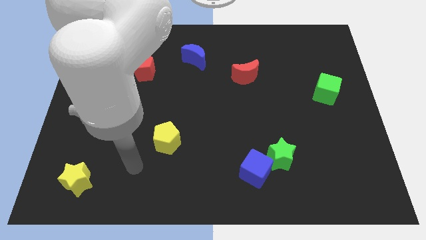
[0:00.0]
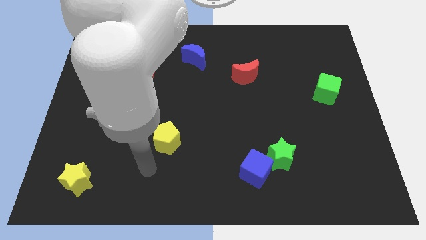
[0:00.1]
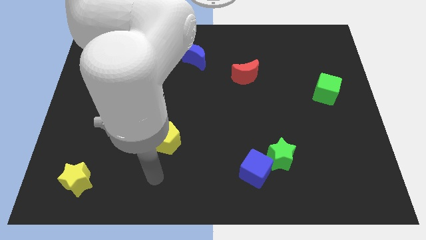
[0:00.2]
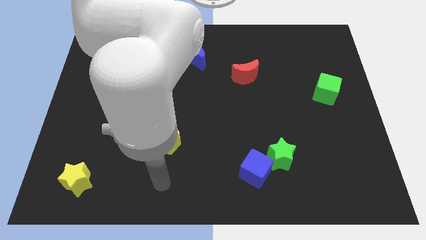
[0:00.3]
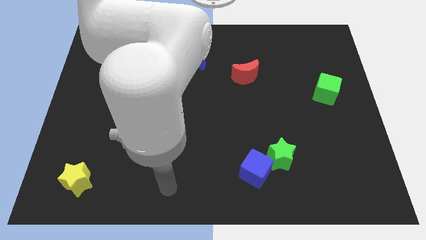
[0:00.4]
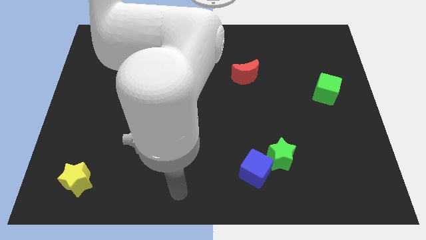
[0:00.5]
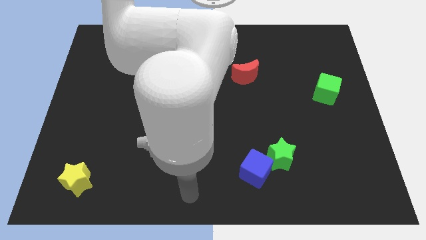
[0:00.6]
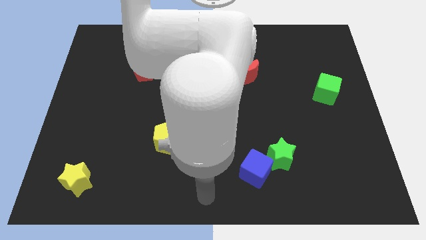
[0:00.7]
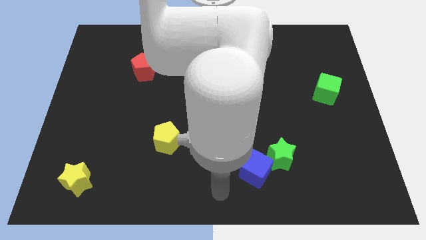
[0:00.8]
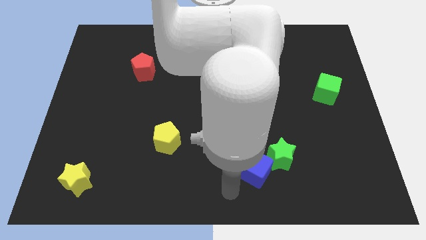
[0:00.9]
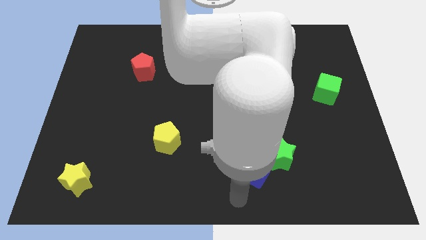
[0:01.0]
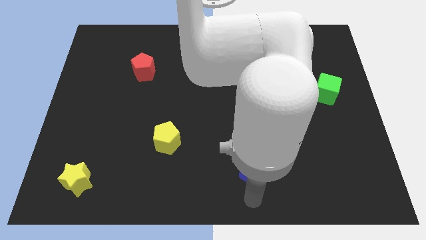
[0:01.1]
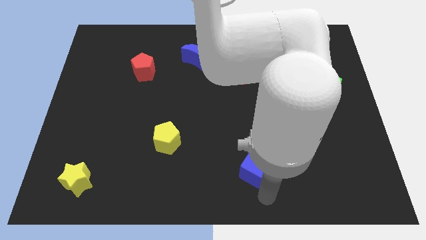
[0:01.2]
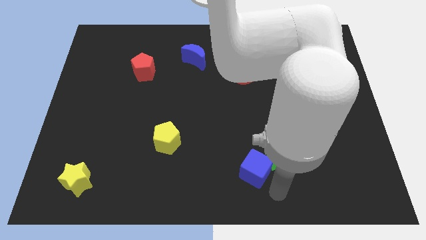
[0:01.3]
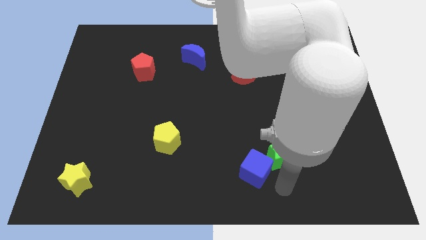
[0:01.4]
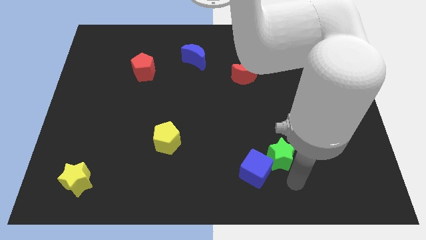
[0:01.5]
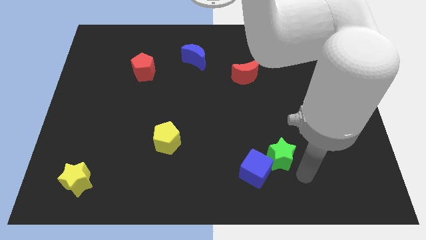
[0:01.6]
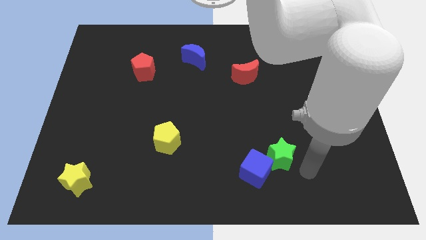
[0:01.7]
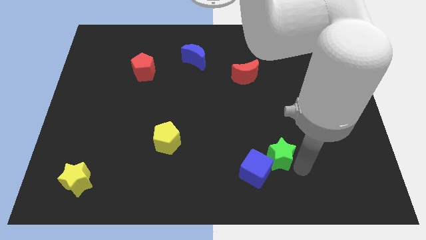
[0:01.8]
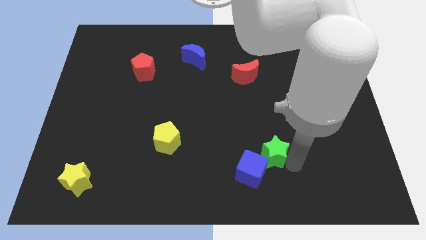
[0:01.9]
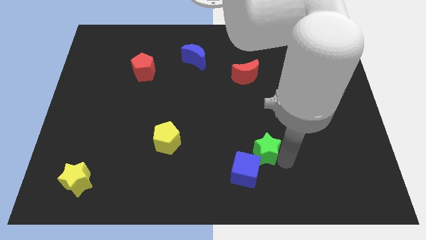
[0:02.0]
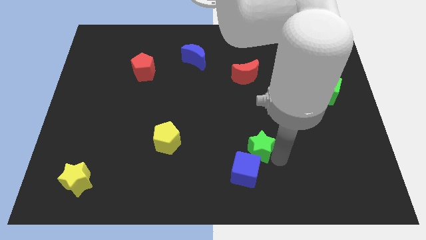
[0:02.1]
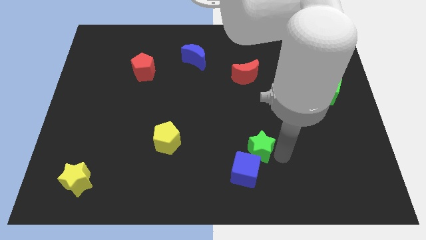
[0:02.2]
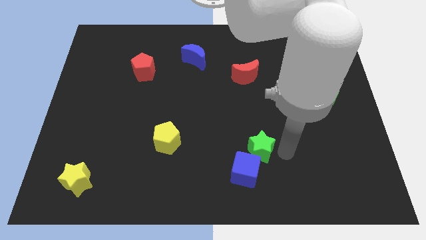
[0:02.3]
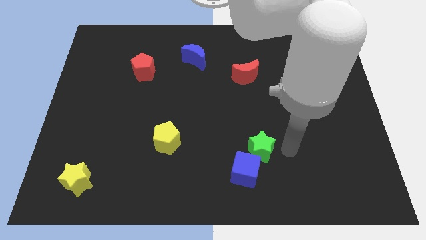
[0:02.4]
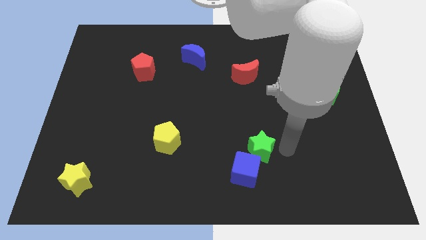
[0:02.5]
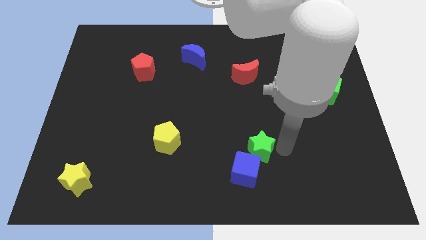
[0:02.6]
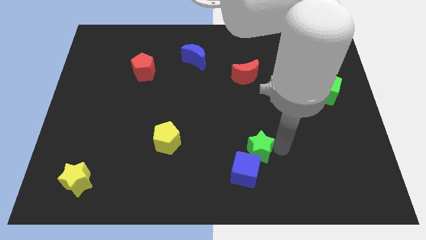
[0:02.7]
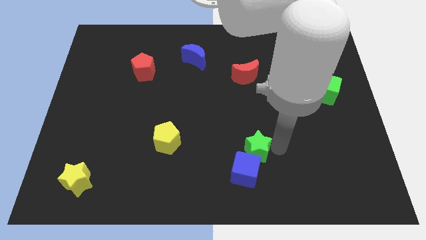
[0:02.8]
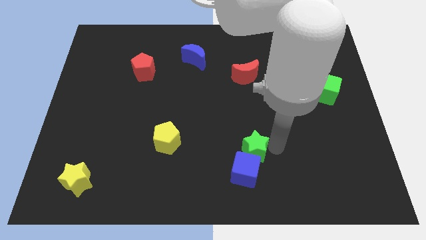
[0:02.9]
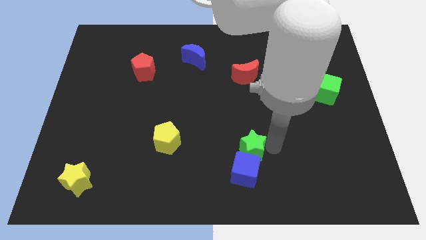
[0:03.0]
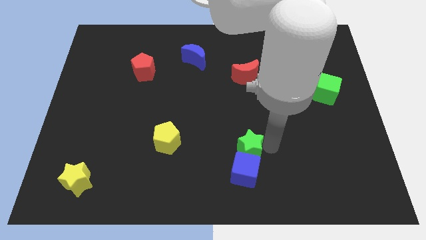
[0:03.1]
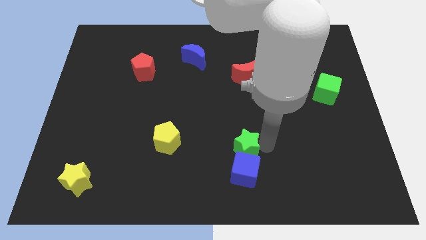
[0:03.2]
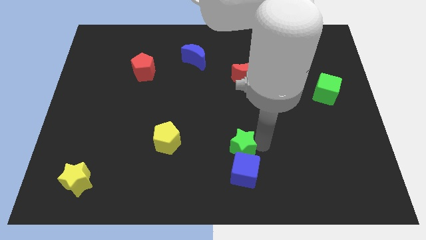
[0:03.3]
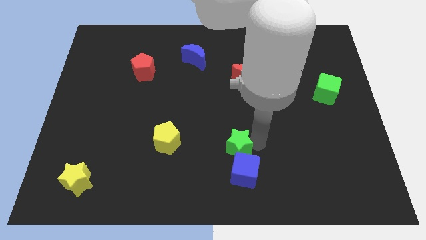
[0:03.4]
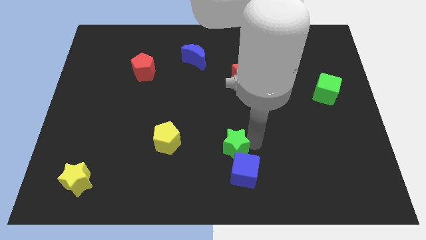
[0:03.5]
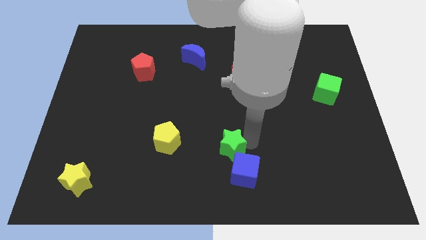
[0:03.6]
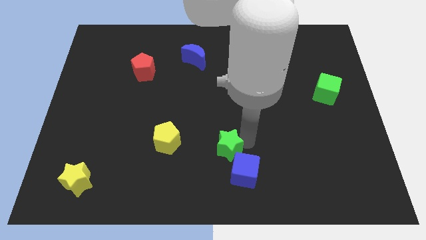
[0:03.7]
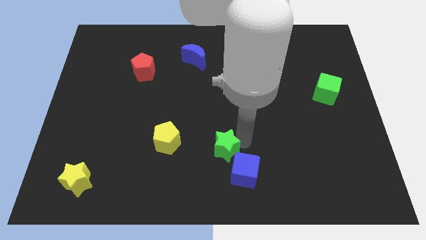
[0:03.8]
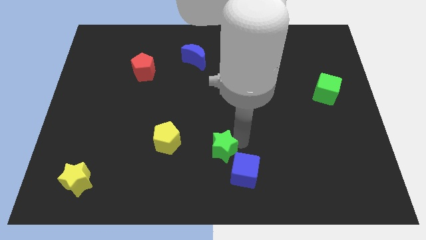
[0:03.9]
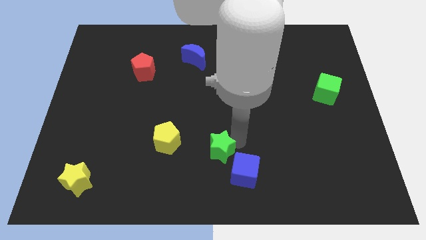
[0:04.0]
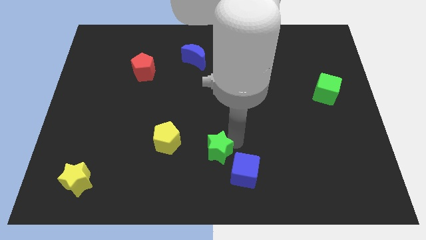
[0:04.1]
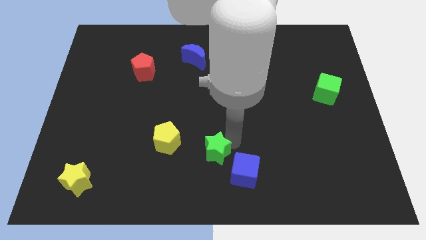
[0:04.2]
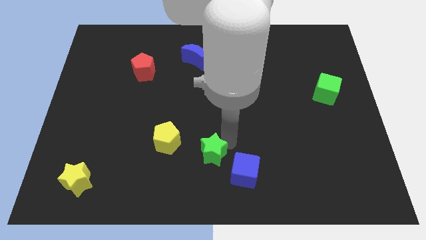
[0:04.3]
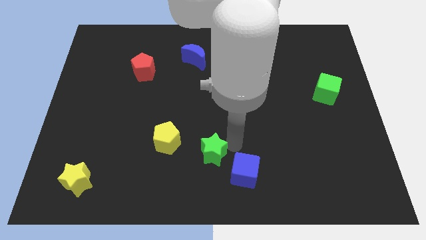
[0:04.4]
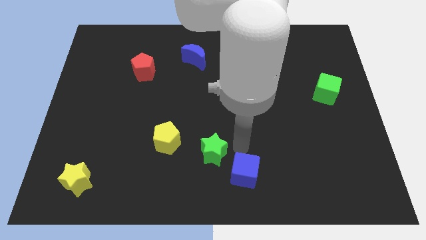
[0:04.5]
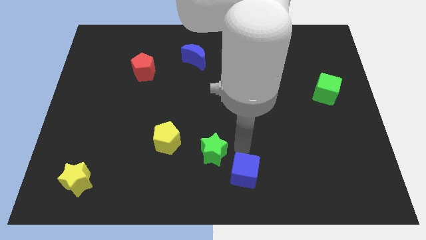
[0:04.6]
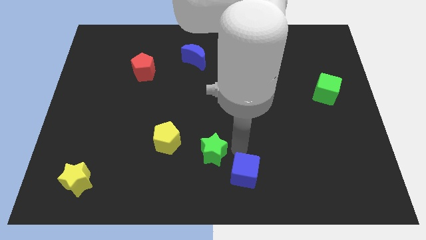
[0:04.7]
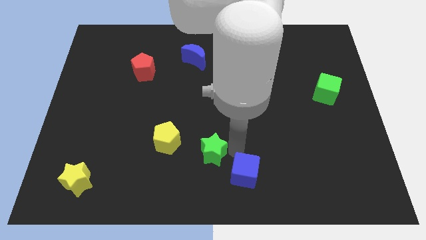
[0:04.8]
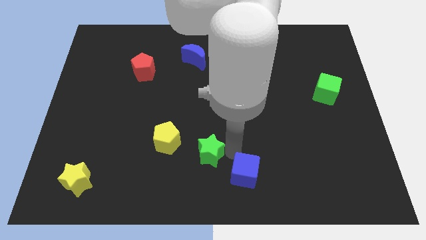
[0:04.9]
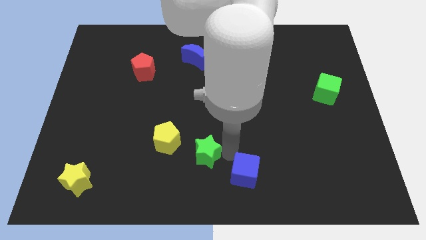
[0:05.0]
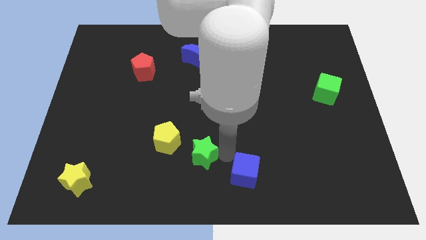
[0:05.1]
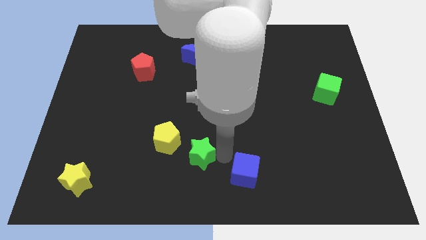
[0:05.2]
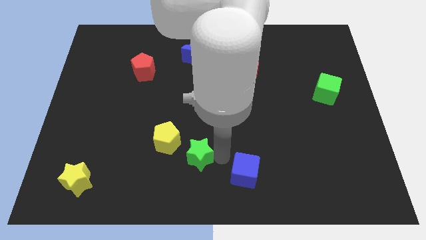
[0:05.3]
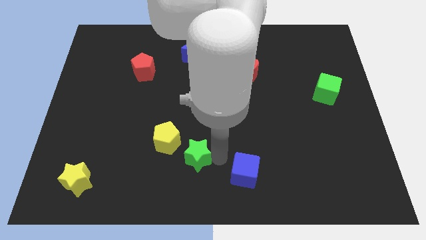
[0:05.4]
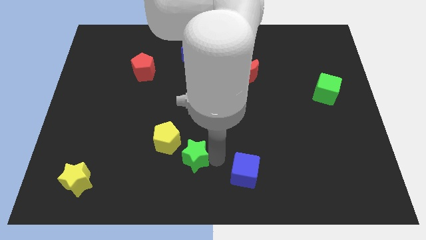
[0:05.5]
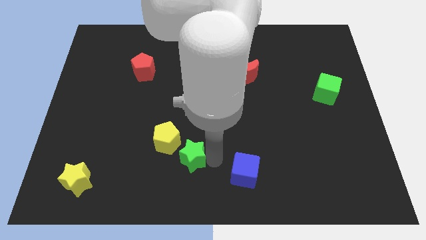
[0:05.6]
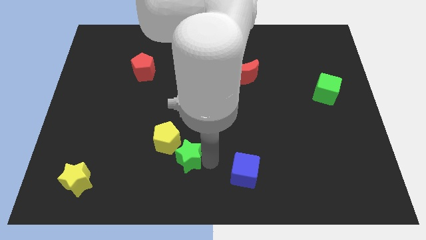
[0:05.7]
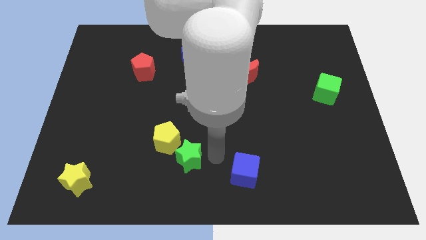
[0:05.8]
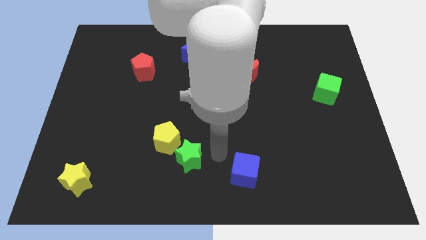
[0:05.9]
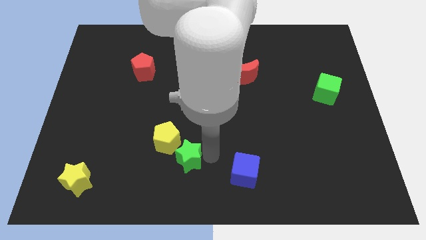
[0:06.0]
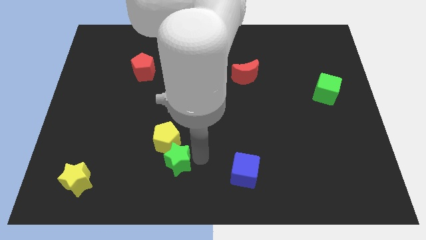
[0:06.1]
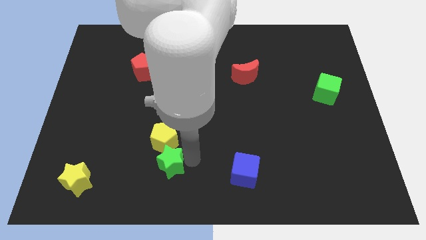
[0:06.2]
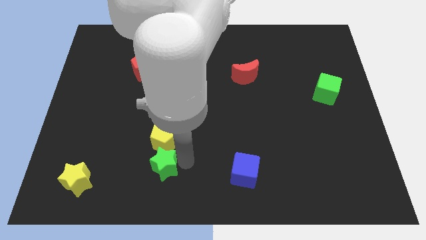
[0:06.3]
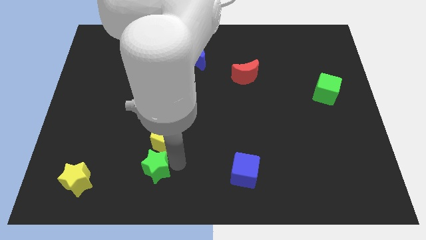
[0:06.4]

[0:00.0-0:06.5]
move the green star to the right of the yellow star

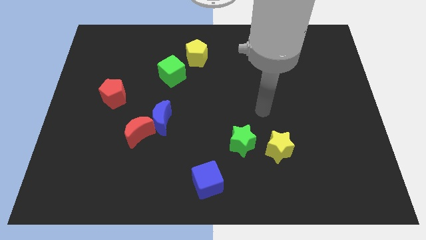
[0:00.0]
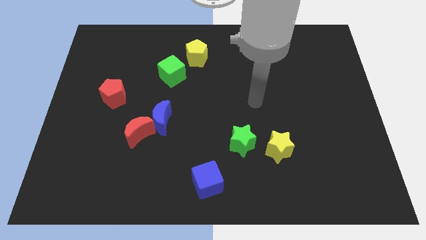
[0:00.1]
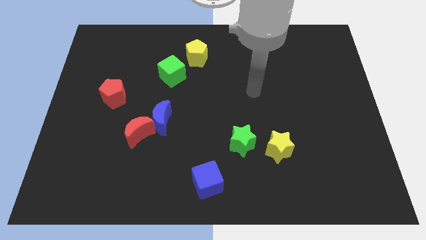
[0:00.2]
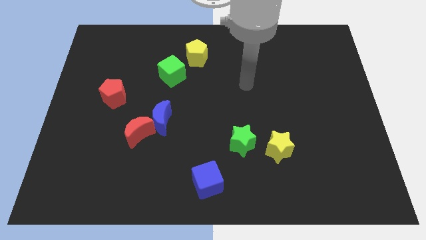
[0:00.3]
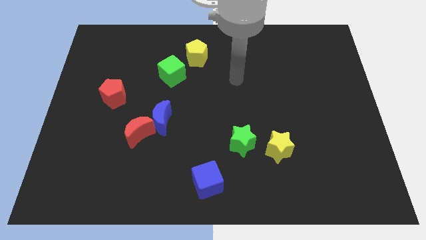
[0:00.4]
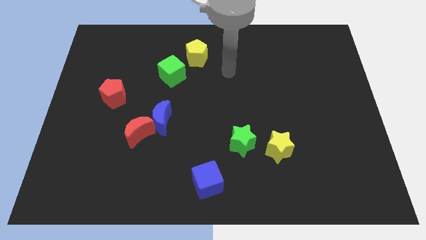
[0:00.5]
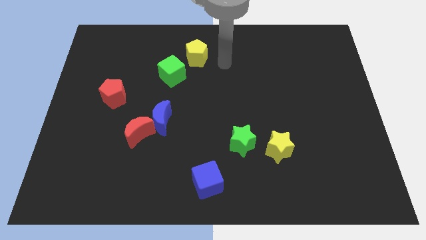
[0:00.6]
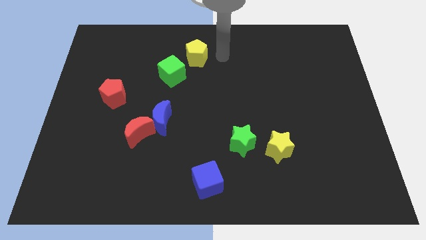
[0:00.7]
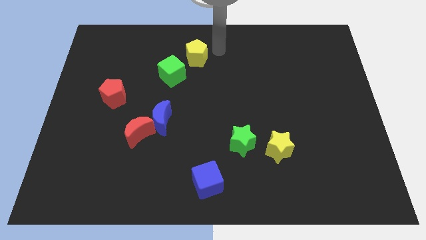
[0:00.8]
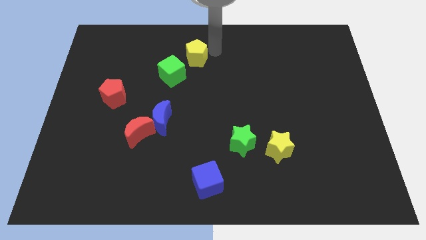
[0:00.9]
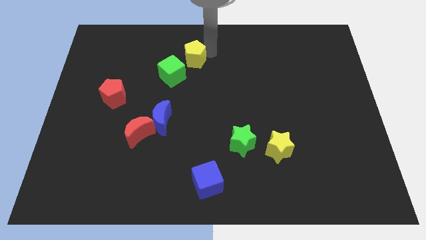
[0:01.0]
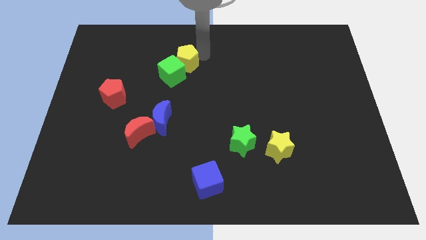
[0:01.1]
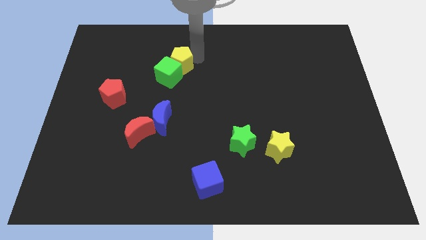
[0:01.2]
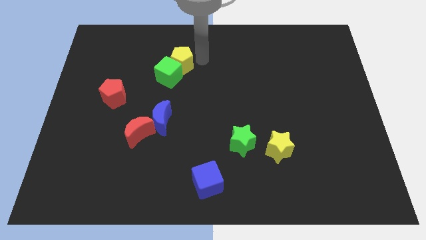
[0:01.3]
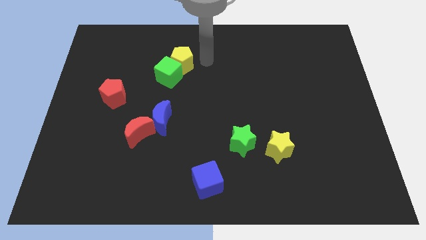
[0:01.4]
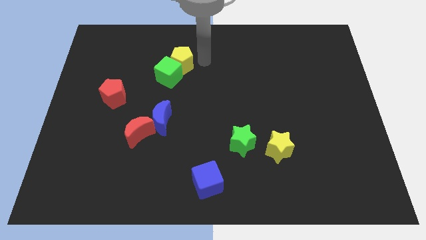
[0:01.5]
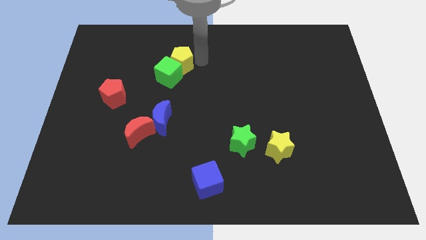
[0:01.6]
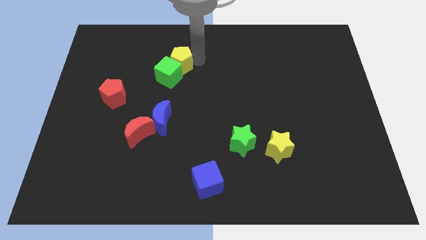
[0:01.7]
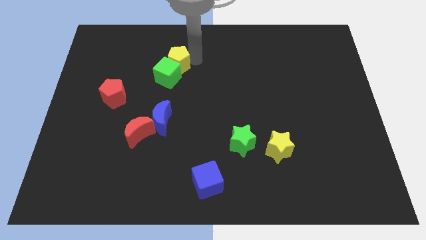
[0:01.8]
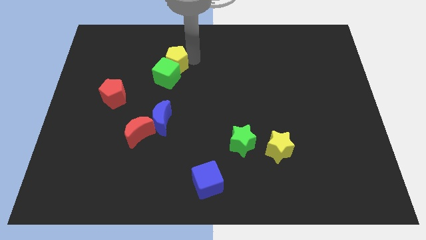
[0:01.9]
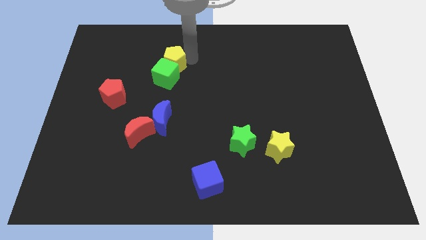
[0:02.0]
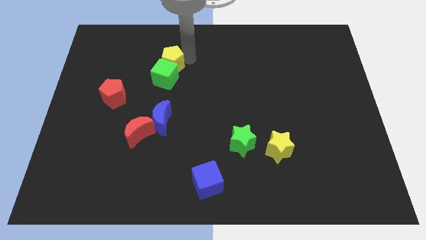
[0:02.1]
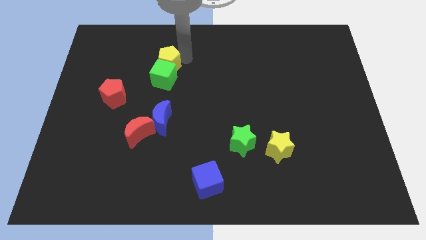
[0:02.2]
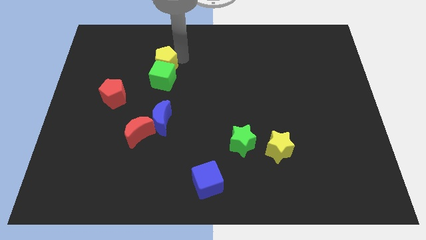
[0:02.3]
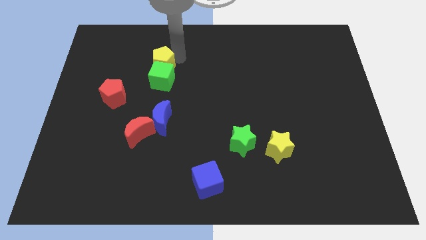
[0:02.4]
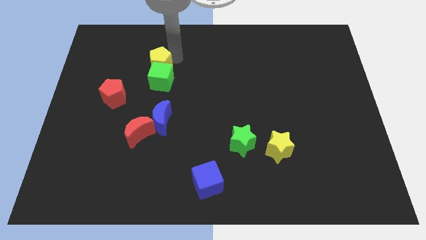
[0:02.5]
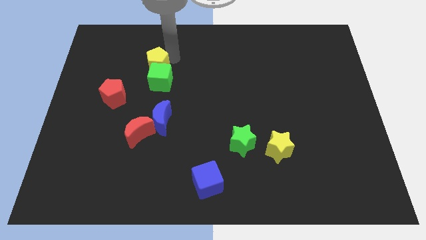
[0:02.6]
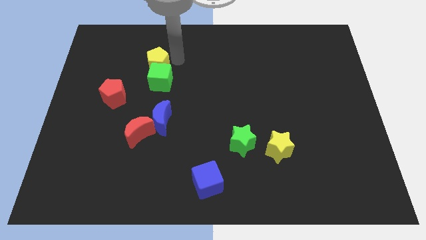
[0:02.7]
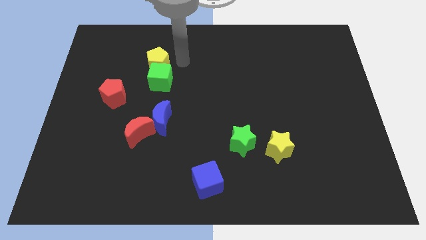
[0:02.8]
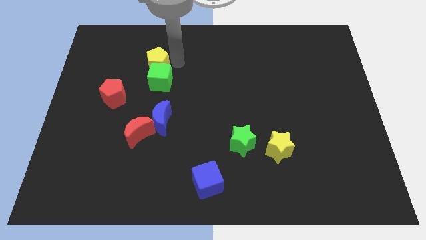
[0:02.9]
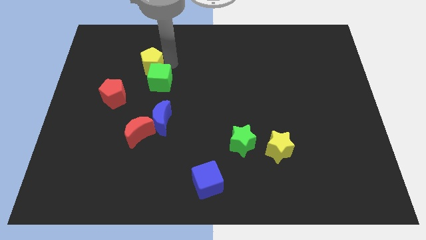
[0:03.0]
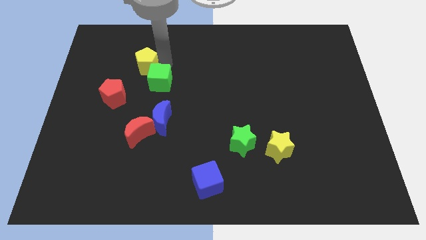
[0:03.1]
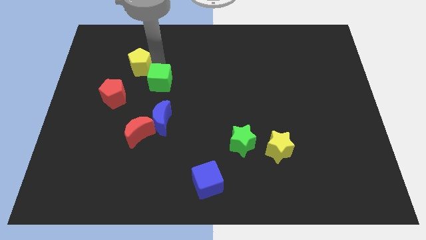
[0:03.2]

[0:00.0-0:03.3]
push the yellow pentagon above the red pentagon
